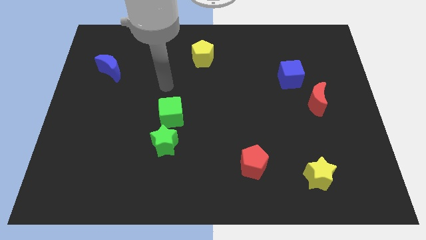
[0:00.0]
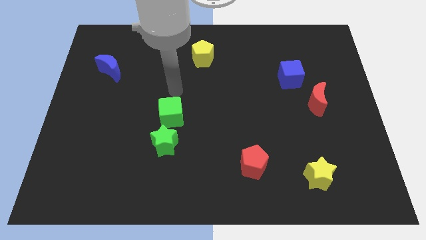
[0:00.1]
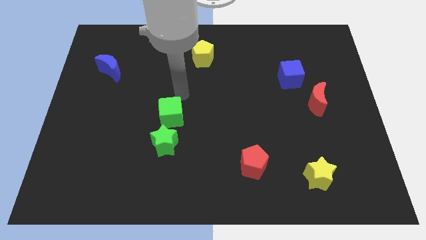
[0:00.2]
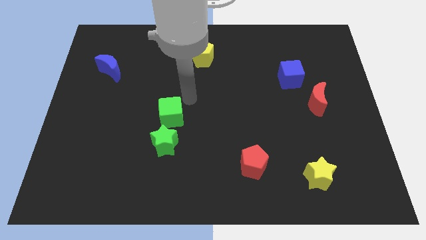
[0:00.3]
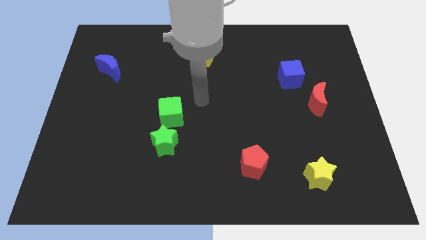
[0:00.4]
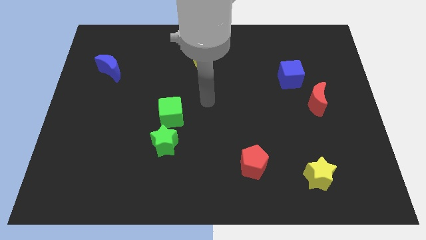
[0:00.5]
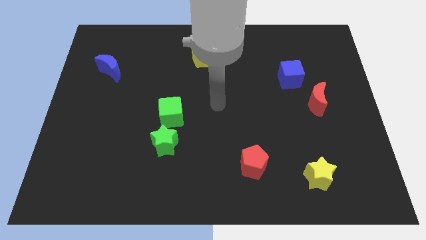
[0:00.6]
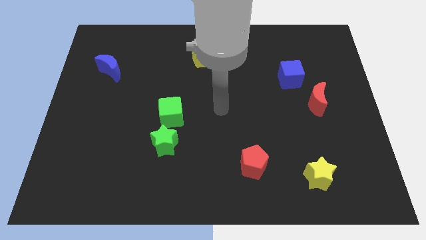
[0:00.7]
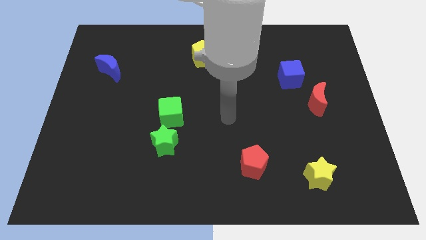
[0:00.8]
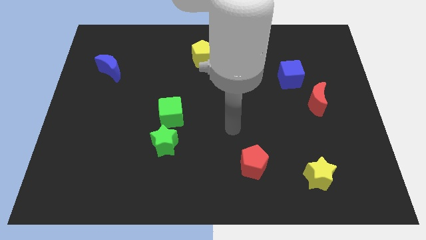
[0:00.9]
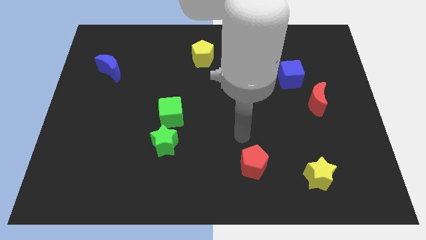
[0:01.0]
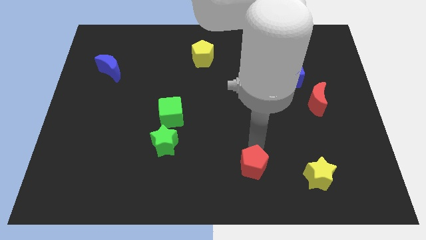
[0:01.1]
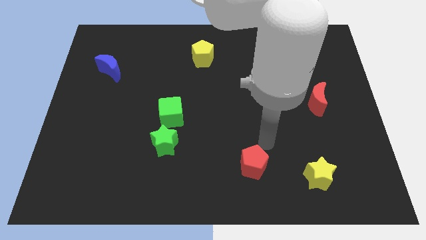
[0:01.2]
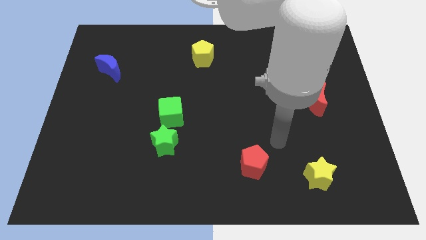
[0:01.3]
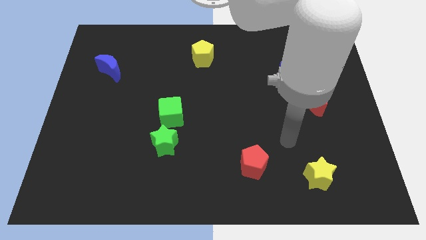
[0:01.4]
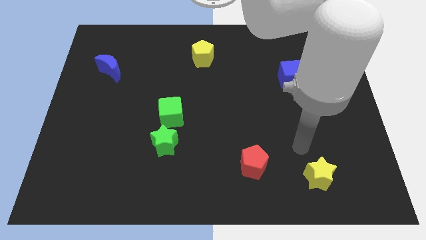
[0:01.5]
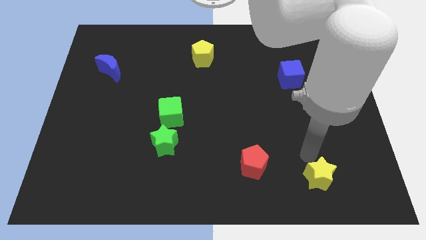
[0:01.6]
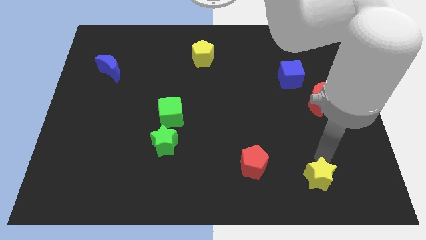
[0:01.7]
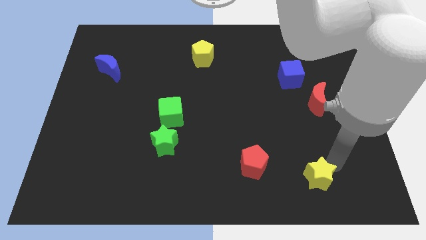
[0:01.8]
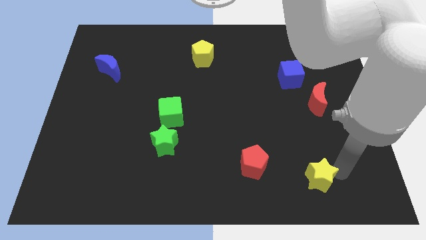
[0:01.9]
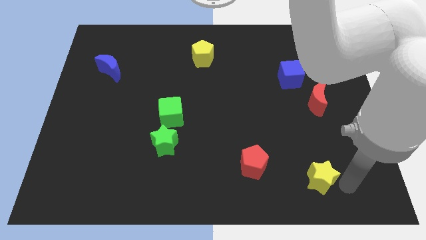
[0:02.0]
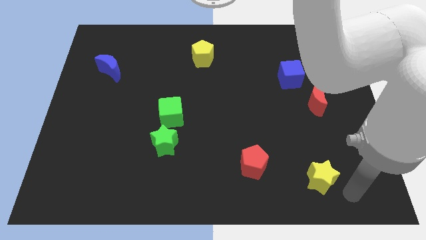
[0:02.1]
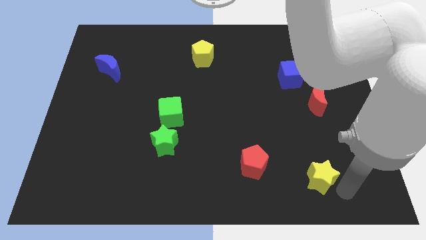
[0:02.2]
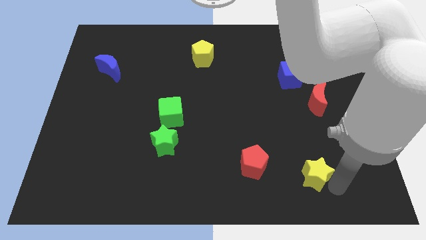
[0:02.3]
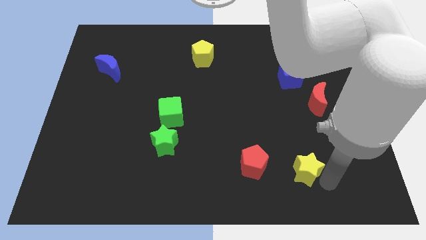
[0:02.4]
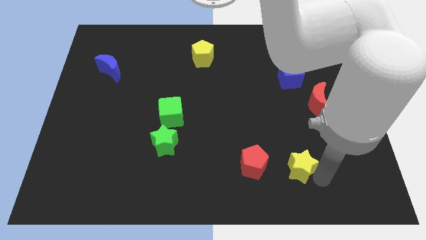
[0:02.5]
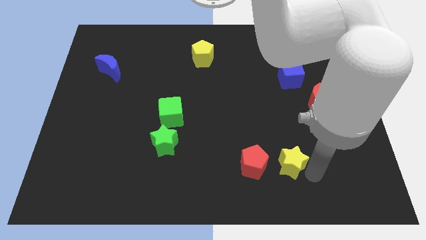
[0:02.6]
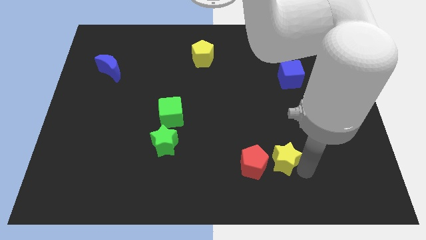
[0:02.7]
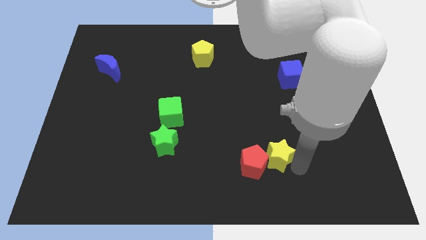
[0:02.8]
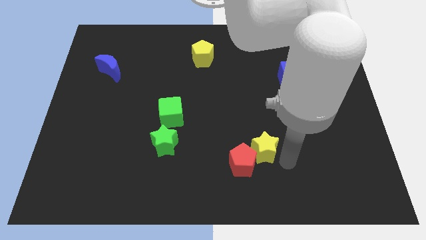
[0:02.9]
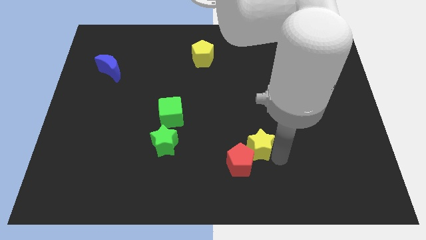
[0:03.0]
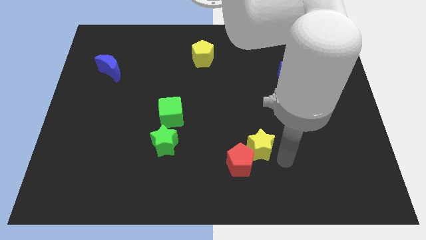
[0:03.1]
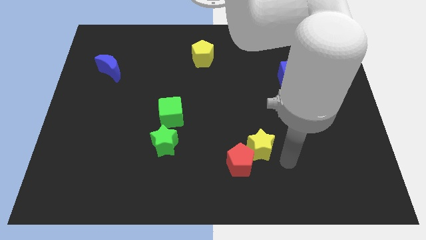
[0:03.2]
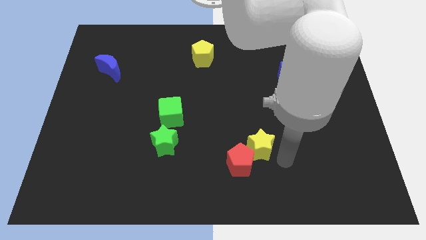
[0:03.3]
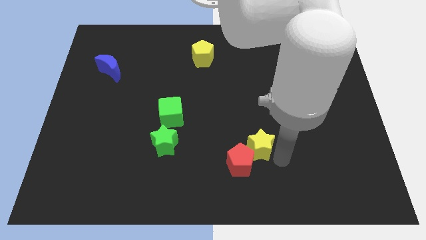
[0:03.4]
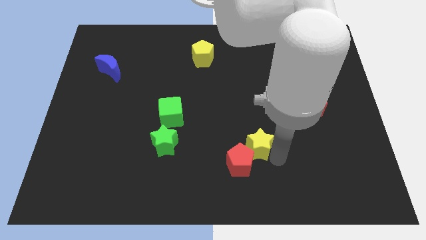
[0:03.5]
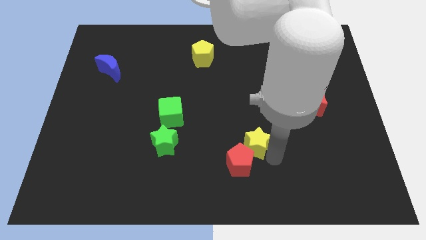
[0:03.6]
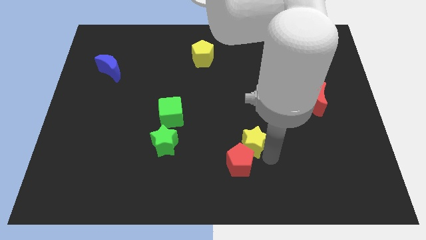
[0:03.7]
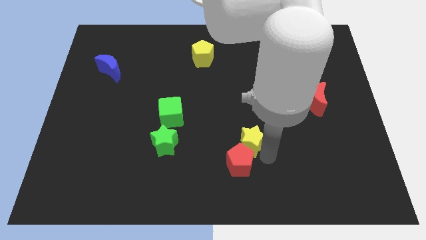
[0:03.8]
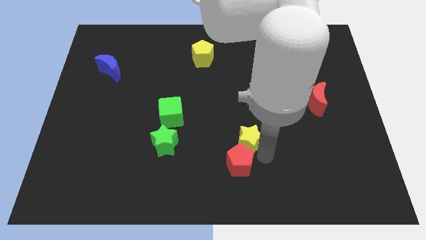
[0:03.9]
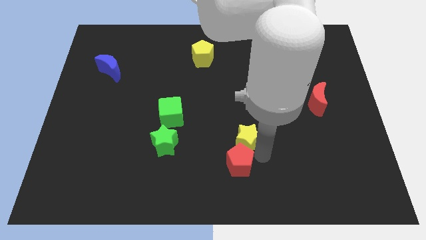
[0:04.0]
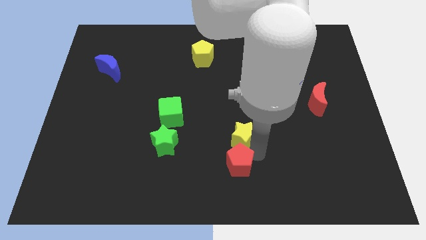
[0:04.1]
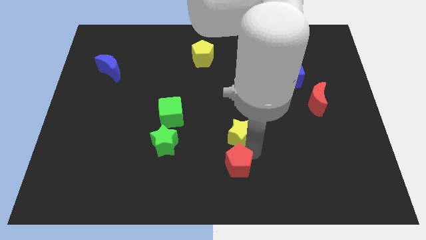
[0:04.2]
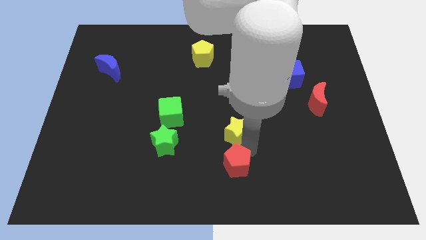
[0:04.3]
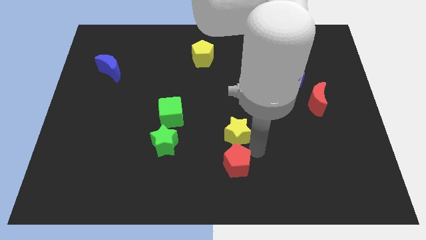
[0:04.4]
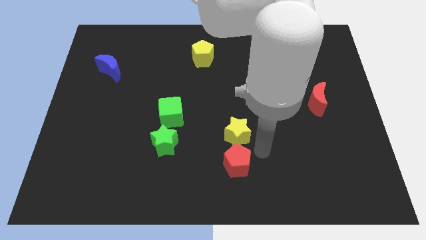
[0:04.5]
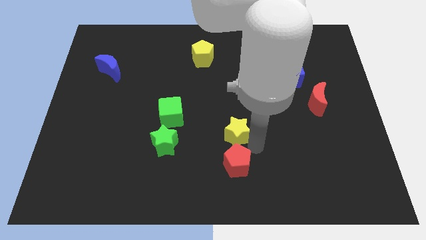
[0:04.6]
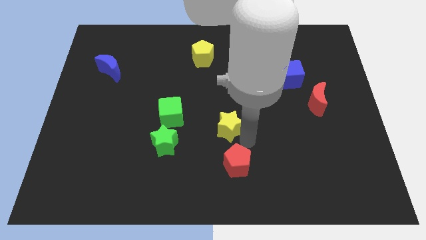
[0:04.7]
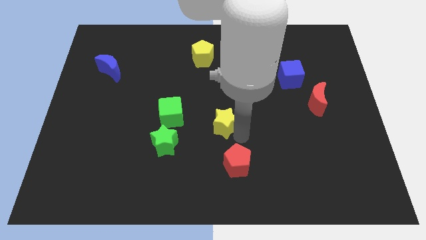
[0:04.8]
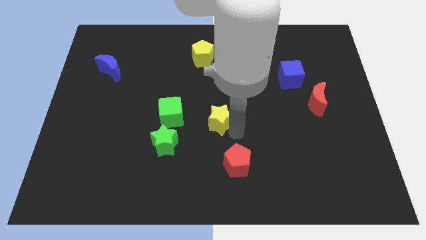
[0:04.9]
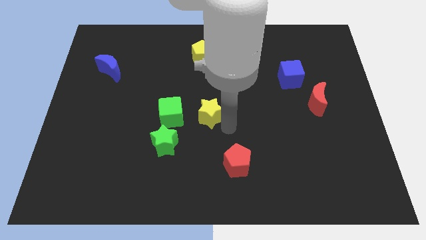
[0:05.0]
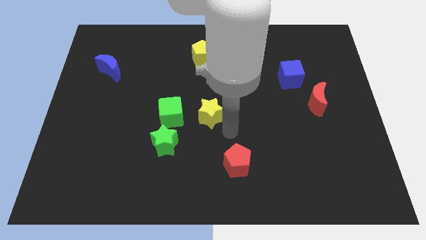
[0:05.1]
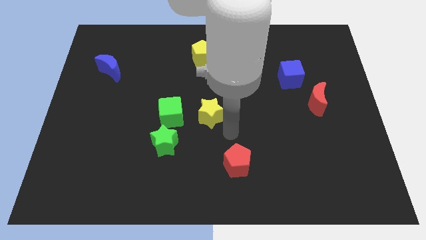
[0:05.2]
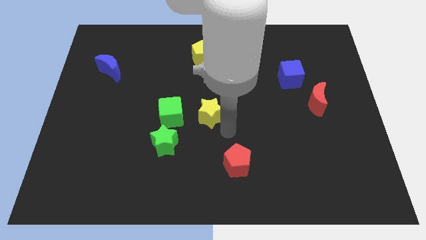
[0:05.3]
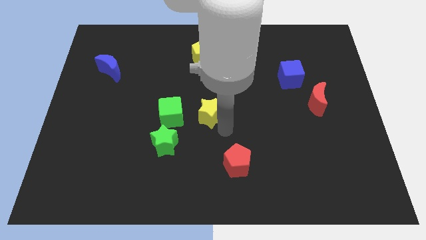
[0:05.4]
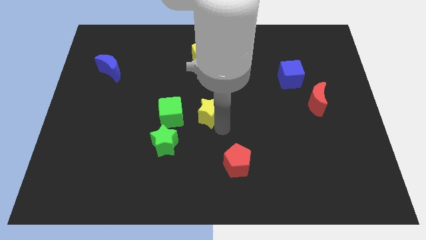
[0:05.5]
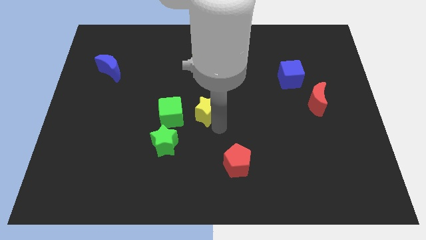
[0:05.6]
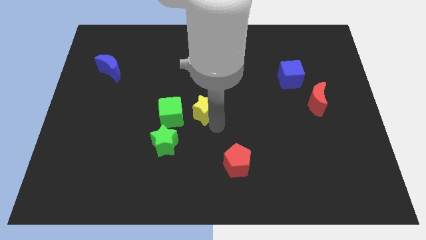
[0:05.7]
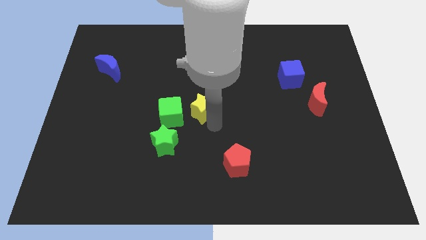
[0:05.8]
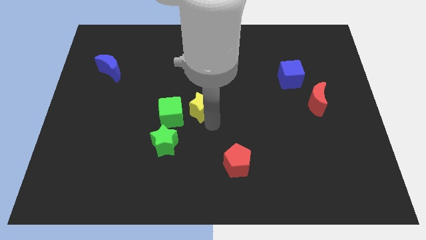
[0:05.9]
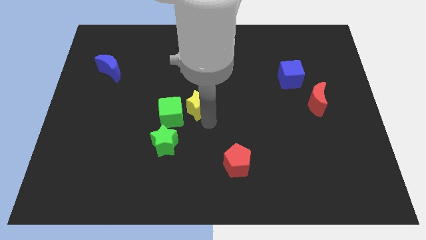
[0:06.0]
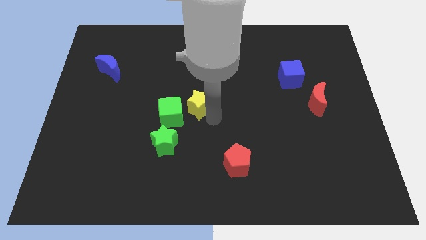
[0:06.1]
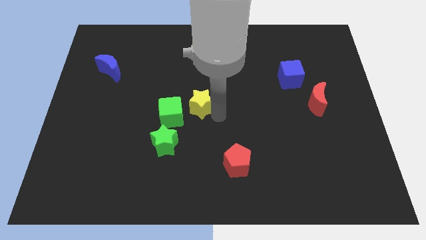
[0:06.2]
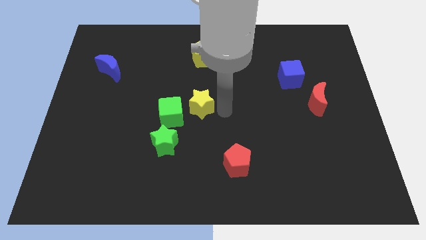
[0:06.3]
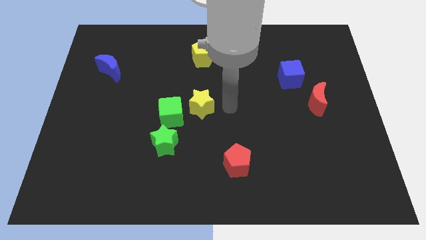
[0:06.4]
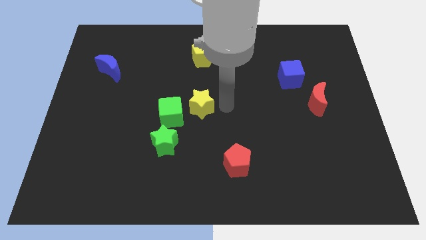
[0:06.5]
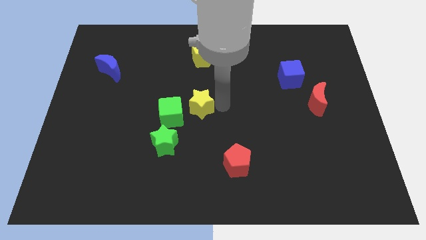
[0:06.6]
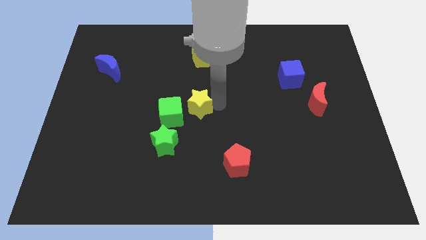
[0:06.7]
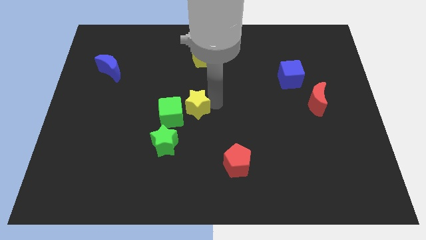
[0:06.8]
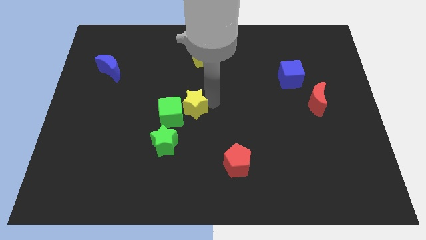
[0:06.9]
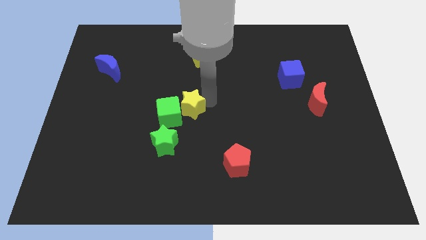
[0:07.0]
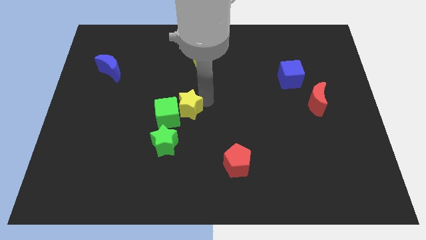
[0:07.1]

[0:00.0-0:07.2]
push the yellow star to the top of the green star
